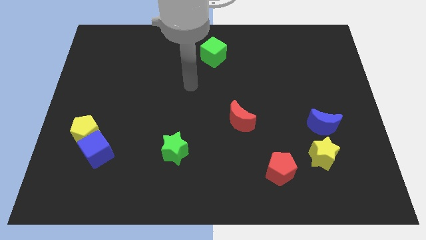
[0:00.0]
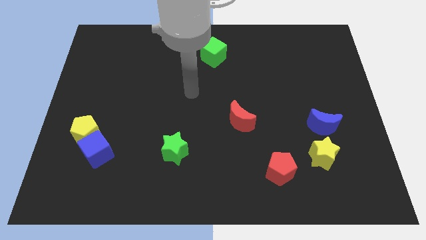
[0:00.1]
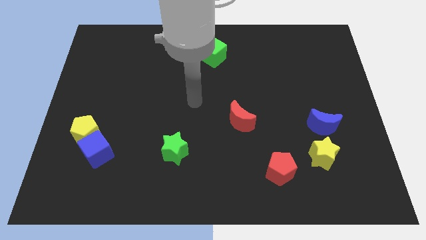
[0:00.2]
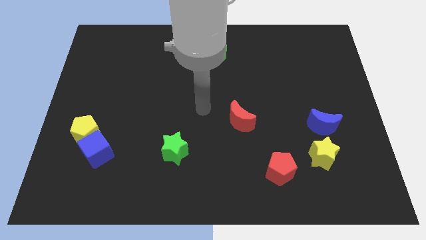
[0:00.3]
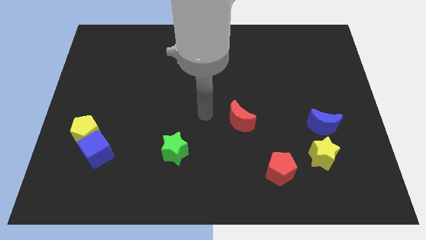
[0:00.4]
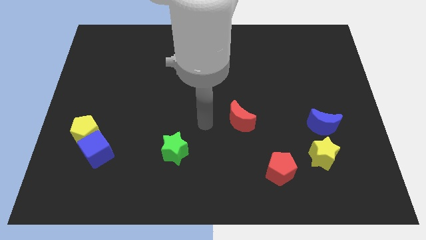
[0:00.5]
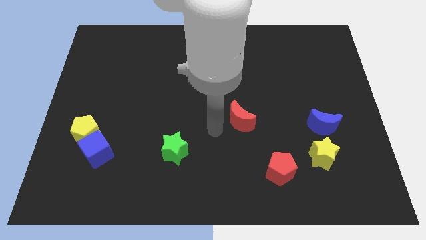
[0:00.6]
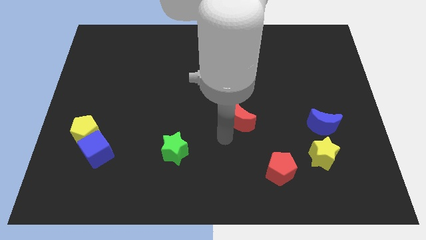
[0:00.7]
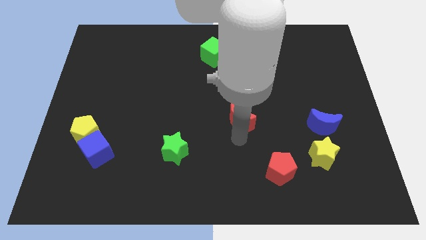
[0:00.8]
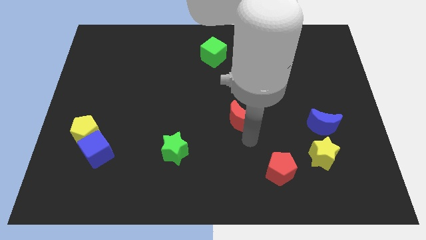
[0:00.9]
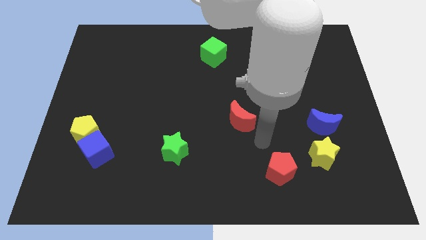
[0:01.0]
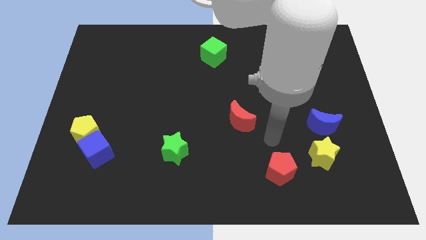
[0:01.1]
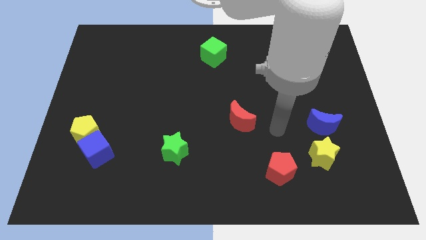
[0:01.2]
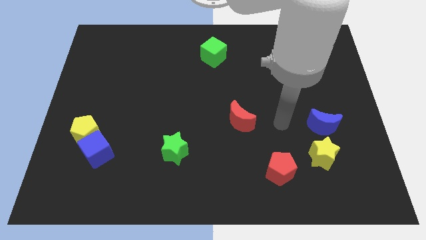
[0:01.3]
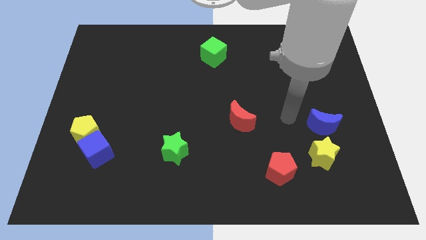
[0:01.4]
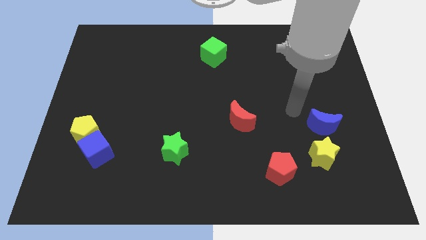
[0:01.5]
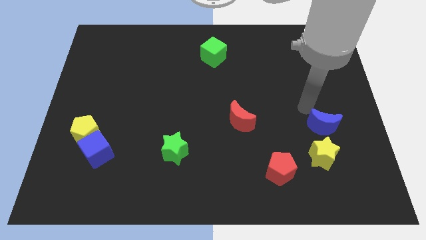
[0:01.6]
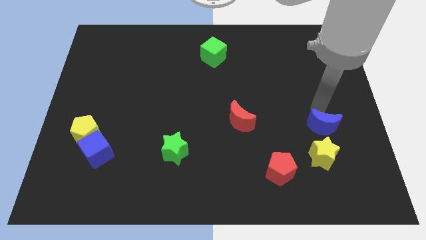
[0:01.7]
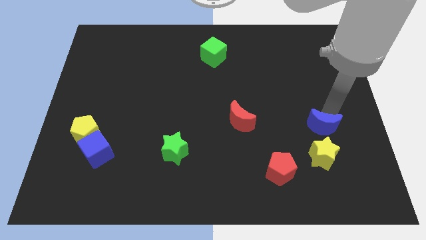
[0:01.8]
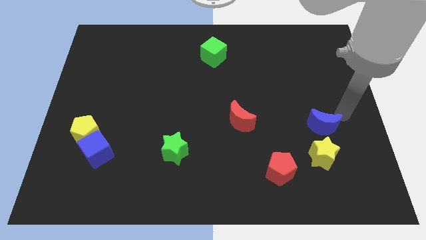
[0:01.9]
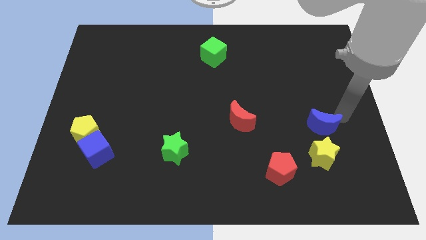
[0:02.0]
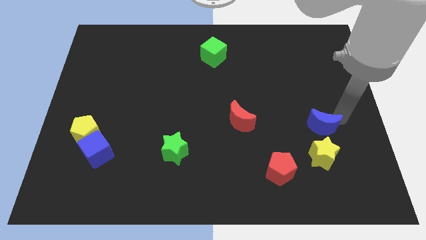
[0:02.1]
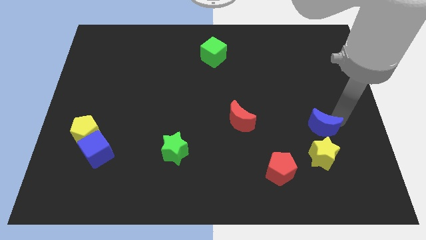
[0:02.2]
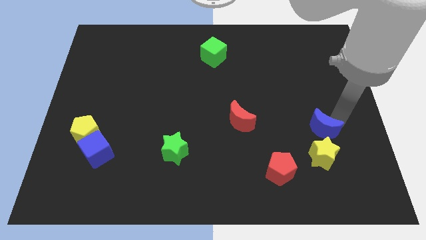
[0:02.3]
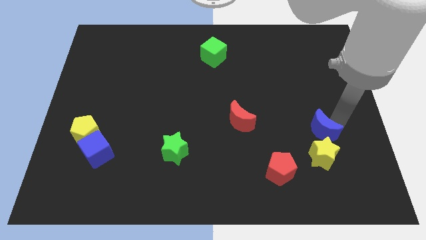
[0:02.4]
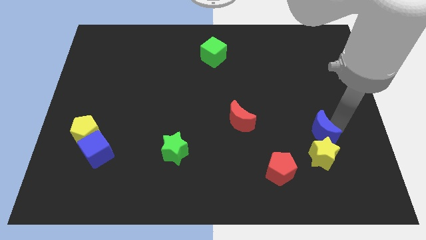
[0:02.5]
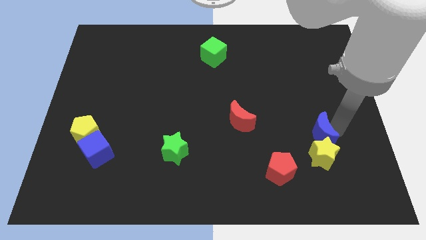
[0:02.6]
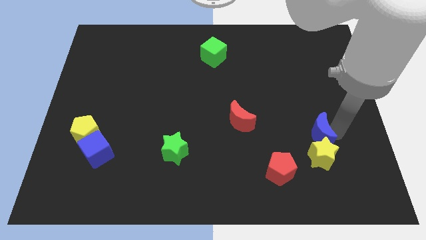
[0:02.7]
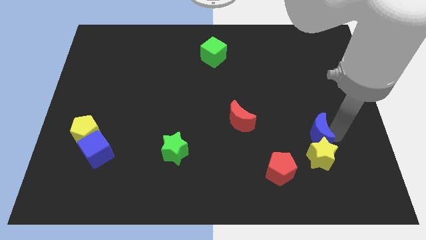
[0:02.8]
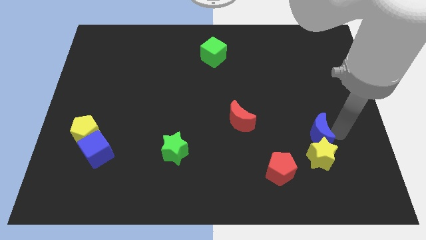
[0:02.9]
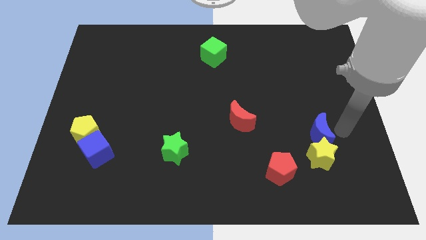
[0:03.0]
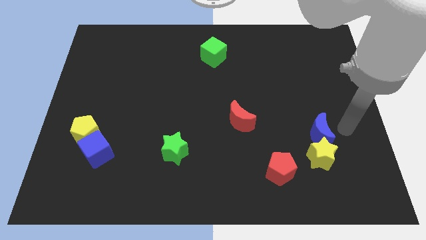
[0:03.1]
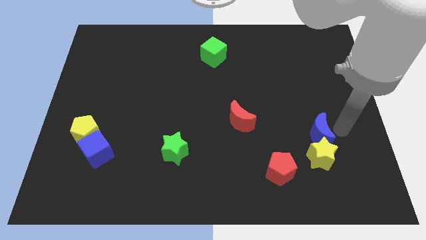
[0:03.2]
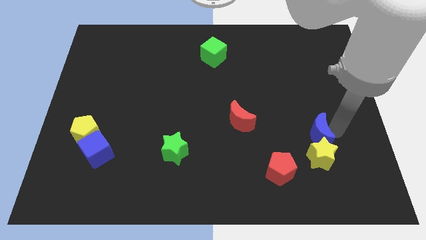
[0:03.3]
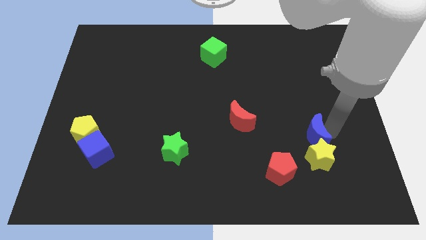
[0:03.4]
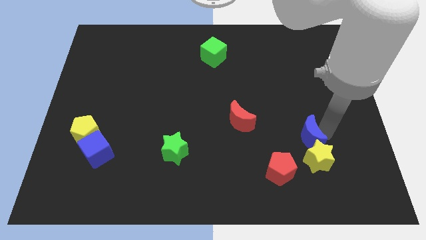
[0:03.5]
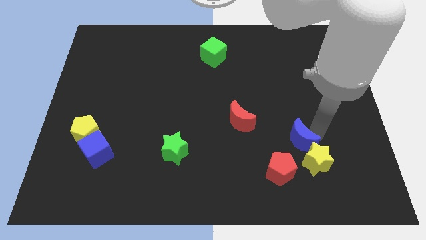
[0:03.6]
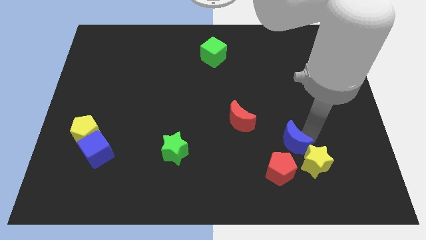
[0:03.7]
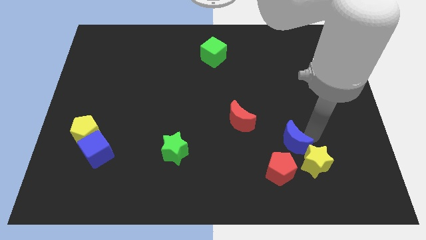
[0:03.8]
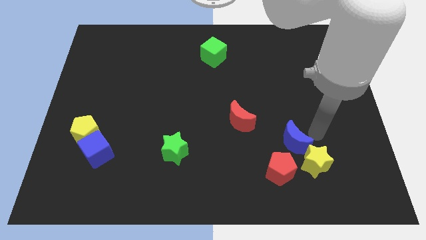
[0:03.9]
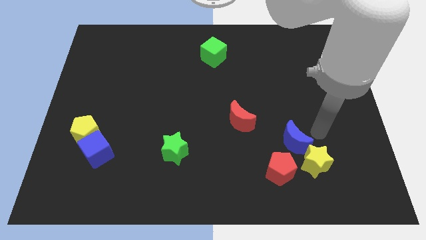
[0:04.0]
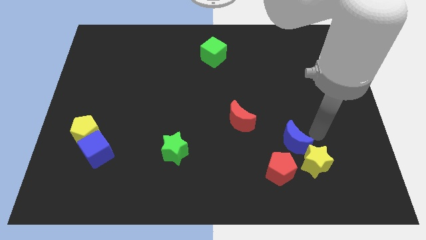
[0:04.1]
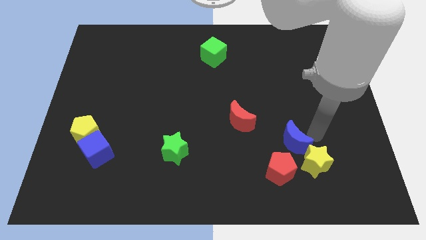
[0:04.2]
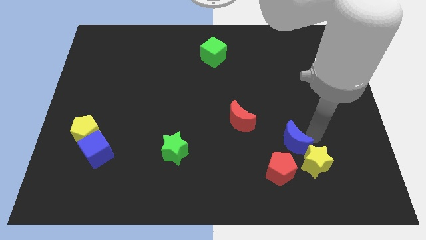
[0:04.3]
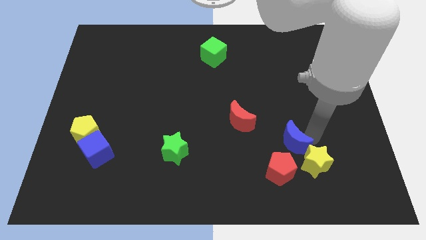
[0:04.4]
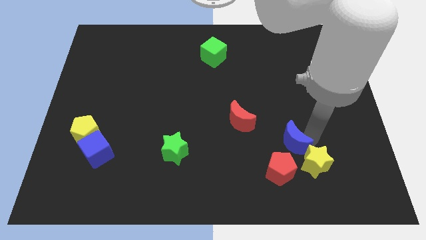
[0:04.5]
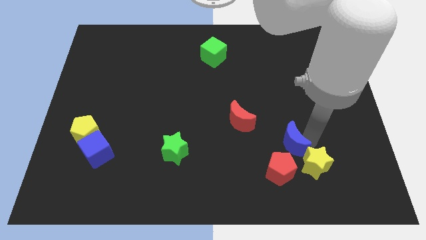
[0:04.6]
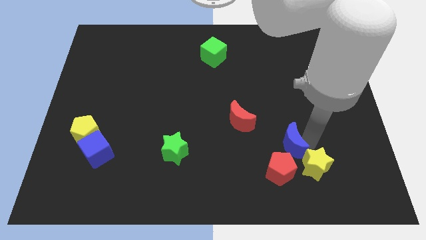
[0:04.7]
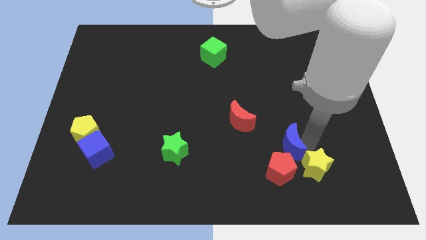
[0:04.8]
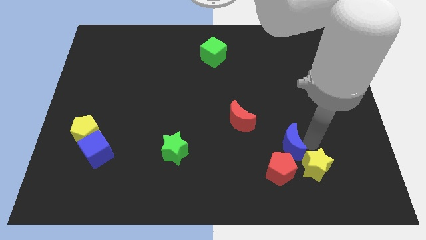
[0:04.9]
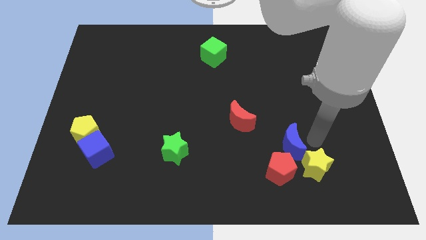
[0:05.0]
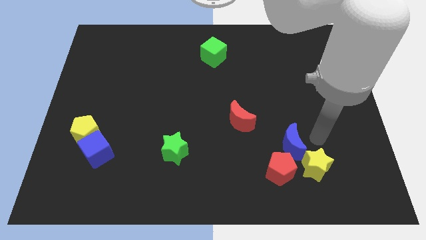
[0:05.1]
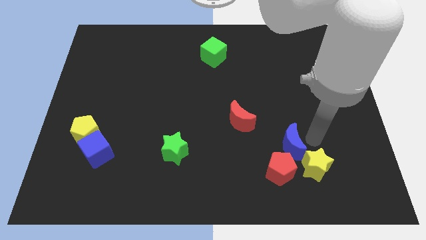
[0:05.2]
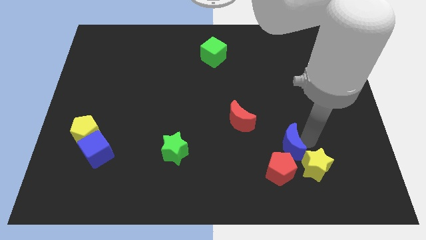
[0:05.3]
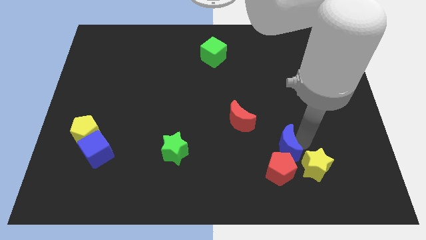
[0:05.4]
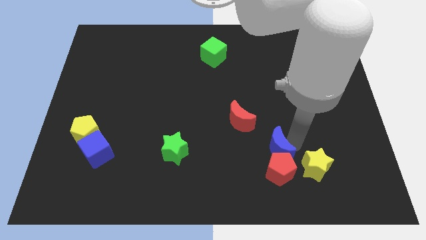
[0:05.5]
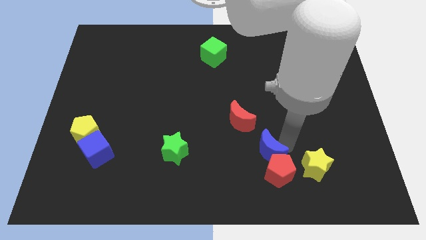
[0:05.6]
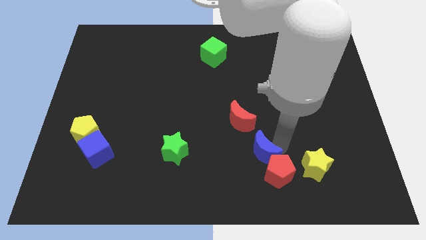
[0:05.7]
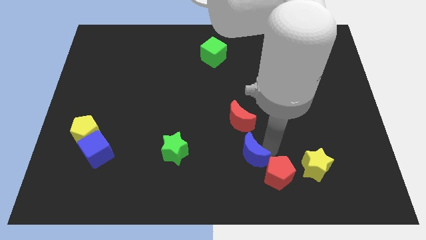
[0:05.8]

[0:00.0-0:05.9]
slide the blue moon to the left of the red pentagon

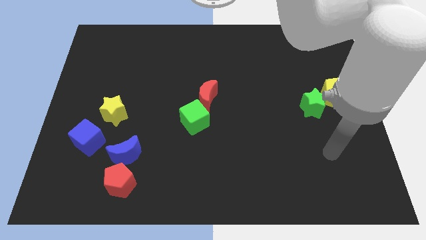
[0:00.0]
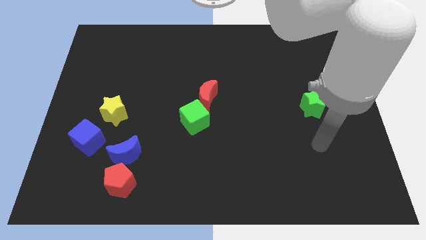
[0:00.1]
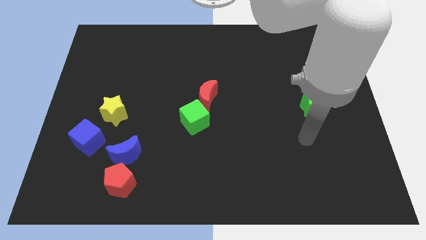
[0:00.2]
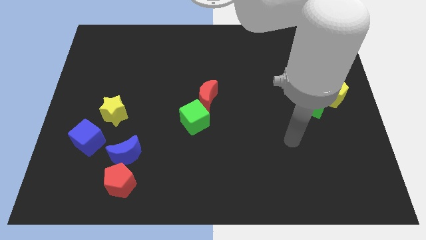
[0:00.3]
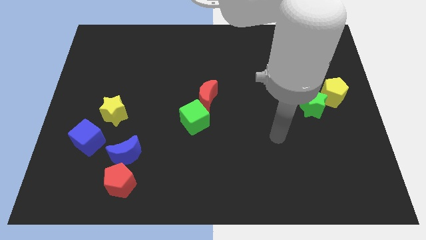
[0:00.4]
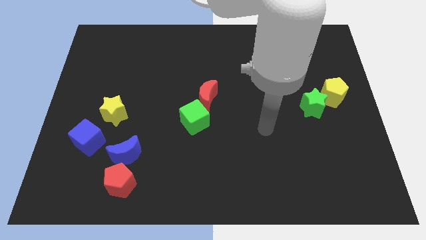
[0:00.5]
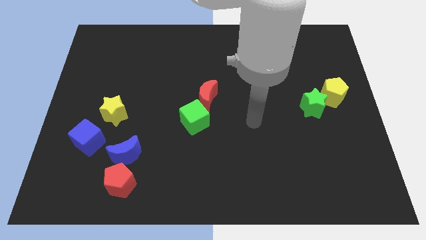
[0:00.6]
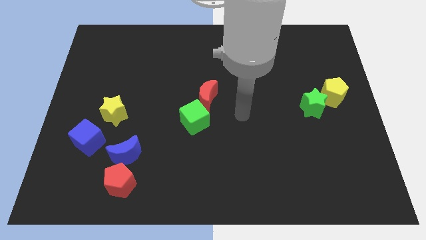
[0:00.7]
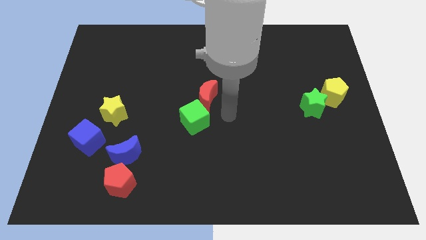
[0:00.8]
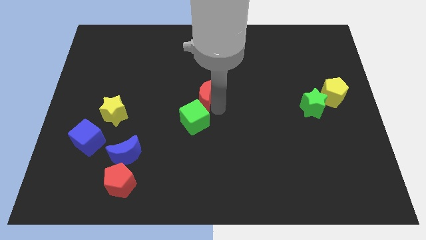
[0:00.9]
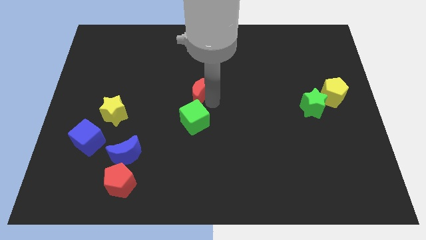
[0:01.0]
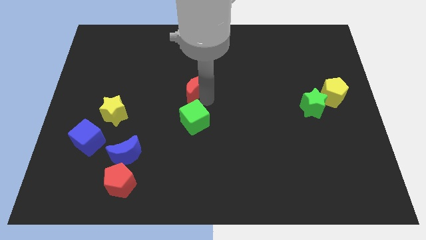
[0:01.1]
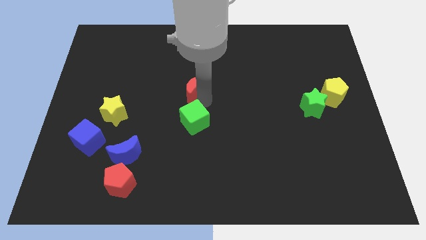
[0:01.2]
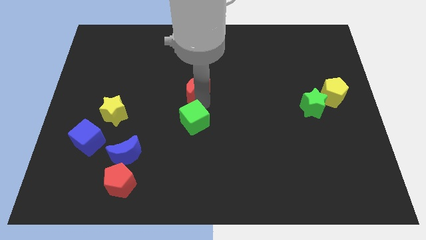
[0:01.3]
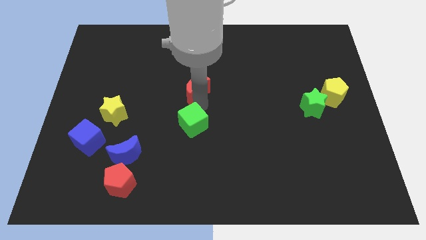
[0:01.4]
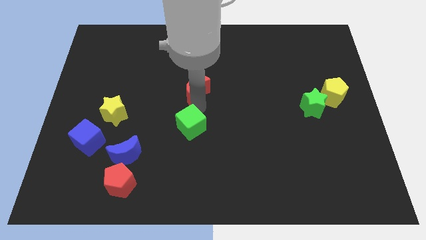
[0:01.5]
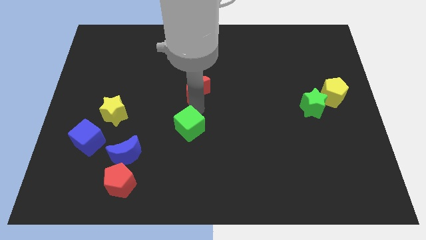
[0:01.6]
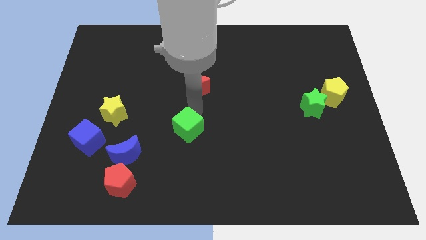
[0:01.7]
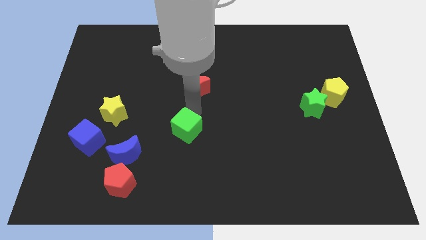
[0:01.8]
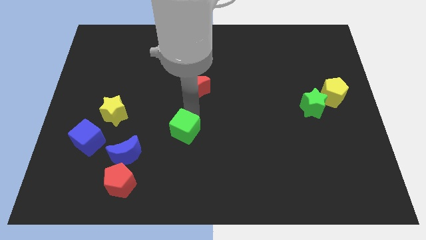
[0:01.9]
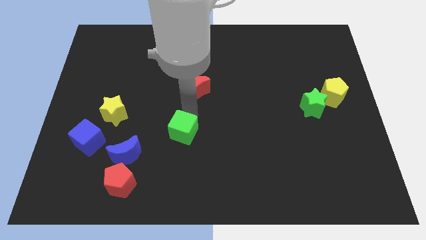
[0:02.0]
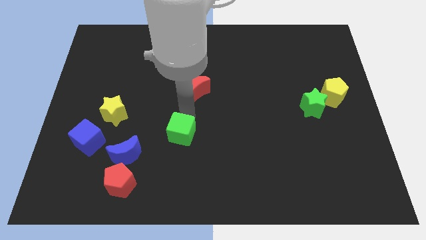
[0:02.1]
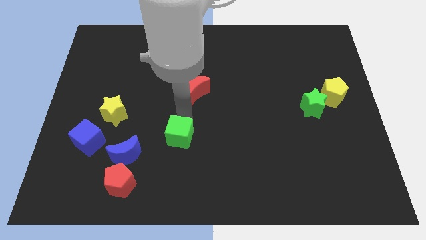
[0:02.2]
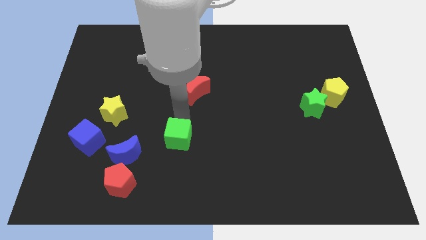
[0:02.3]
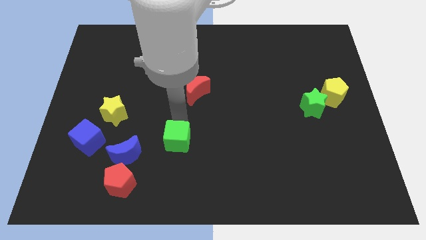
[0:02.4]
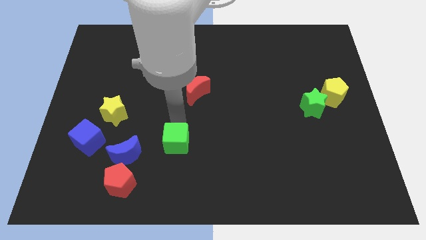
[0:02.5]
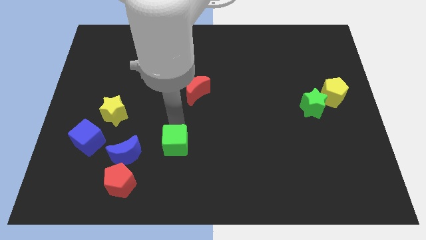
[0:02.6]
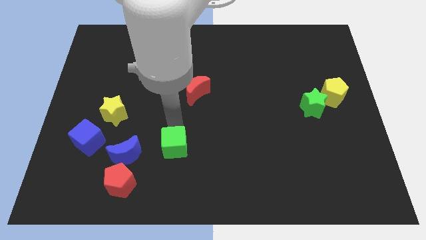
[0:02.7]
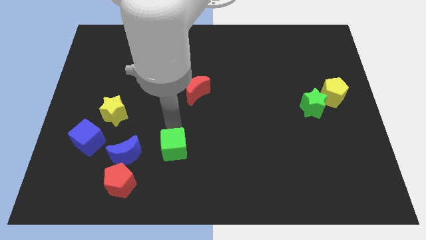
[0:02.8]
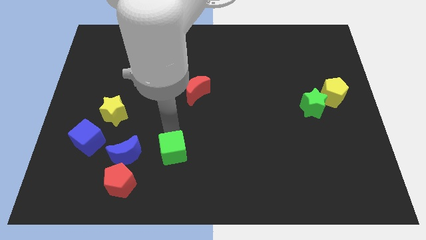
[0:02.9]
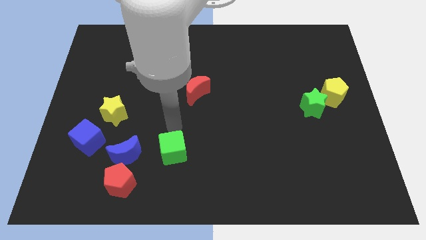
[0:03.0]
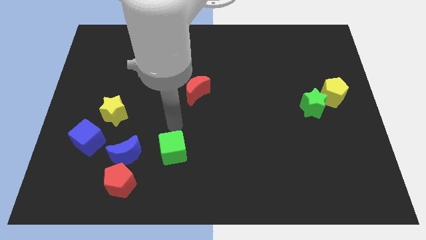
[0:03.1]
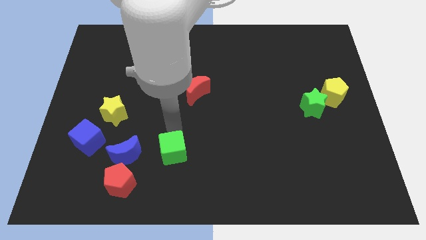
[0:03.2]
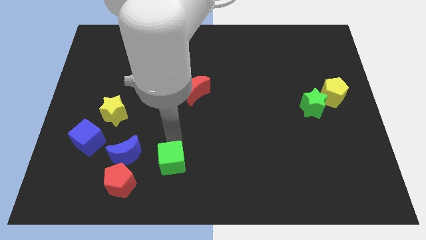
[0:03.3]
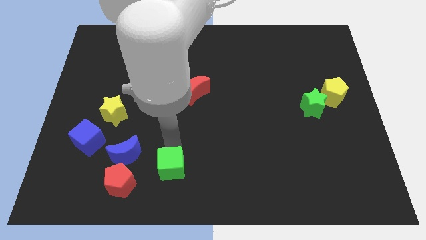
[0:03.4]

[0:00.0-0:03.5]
push the green cube to the right side of the red pentagon
